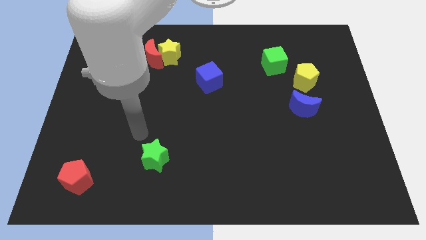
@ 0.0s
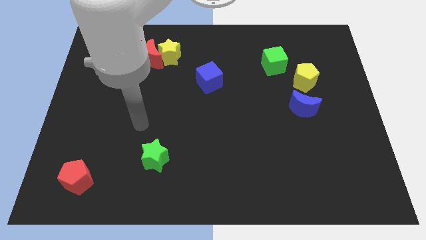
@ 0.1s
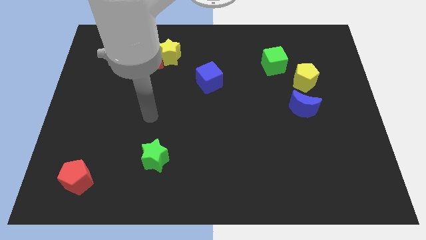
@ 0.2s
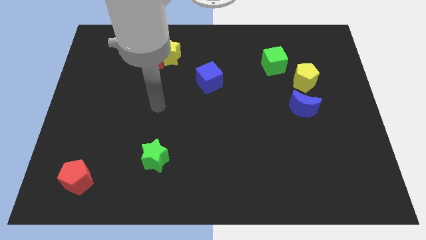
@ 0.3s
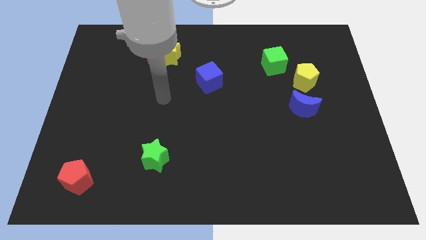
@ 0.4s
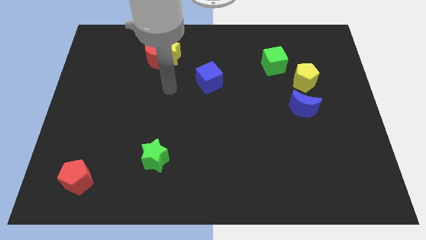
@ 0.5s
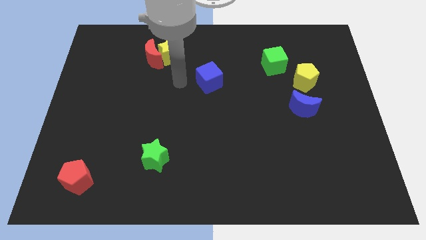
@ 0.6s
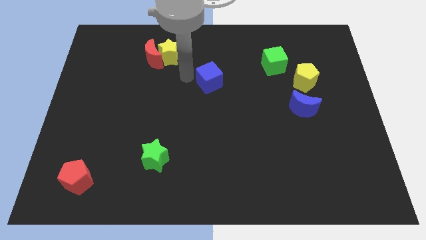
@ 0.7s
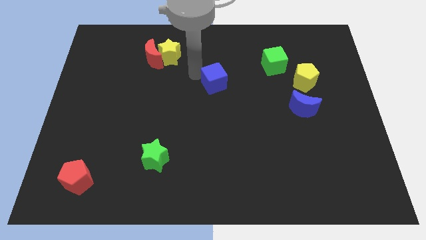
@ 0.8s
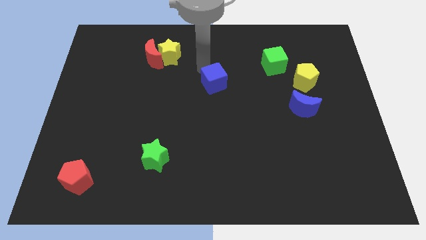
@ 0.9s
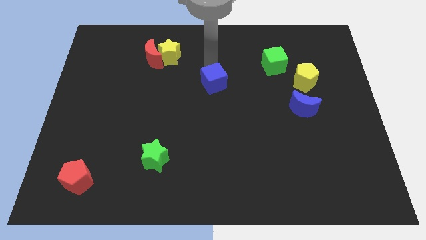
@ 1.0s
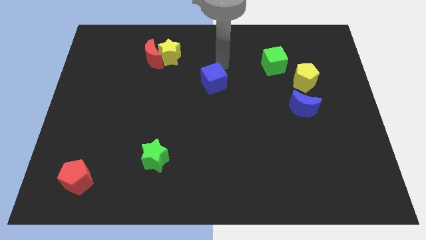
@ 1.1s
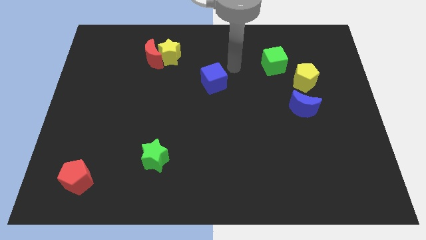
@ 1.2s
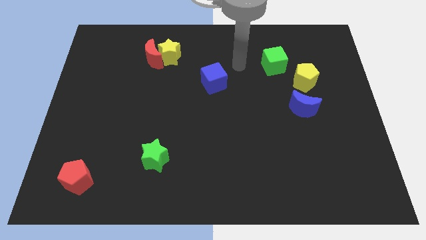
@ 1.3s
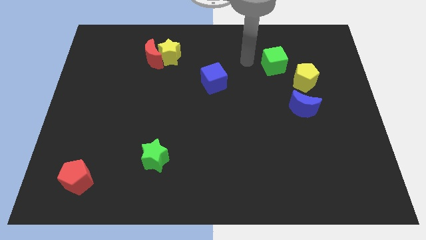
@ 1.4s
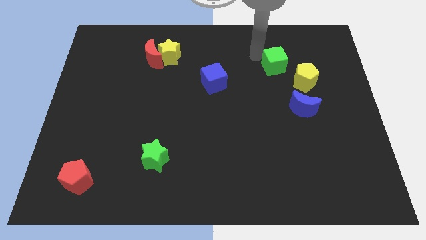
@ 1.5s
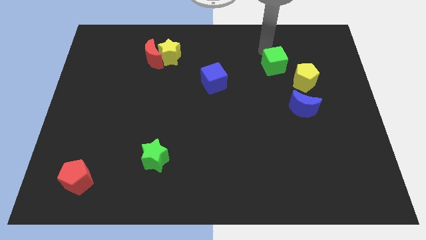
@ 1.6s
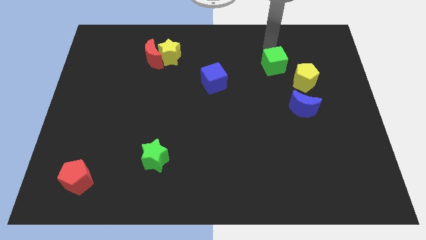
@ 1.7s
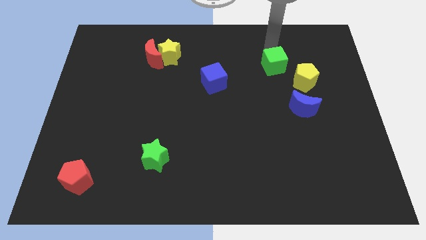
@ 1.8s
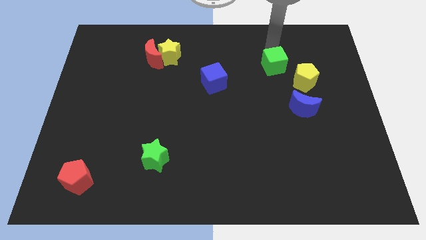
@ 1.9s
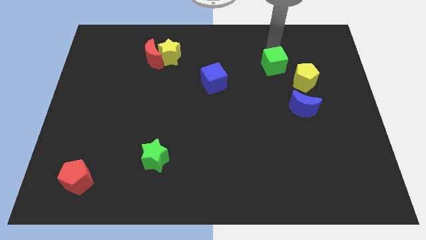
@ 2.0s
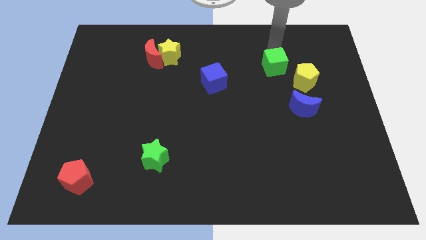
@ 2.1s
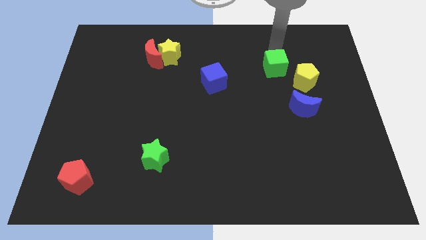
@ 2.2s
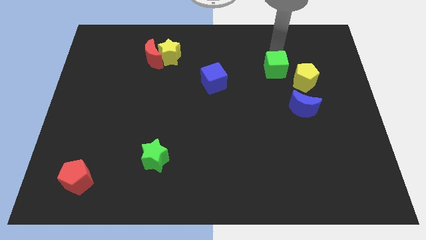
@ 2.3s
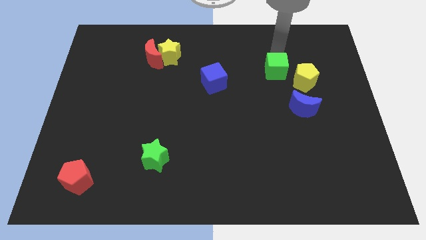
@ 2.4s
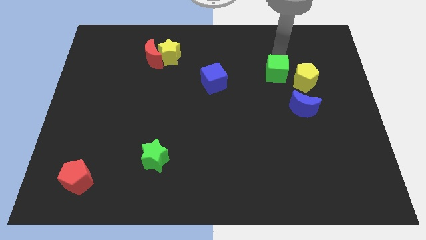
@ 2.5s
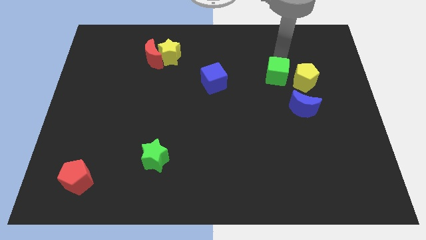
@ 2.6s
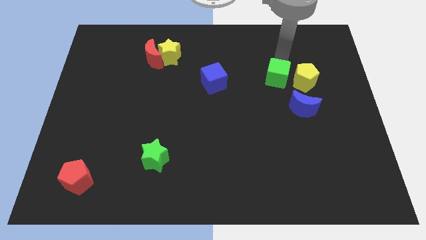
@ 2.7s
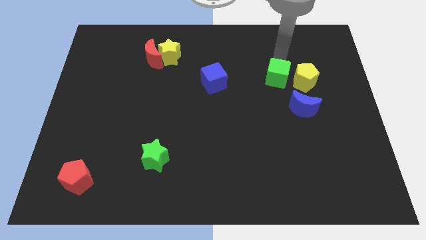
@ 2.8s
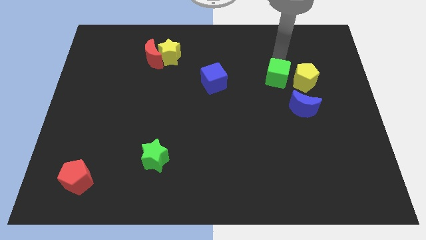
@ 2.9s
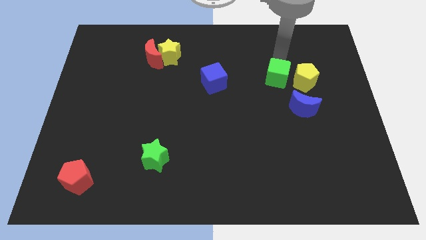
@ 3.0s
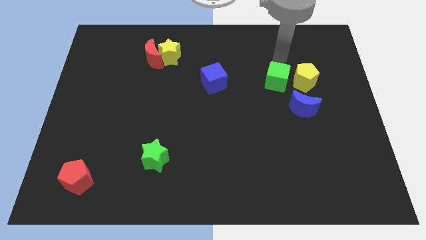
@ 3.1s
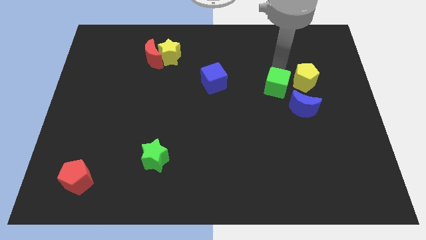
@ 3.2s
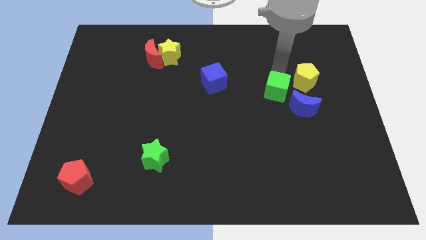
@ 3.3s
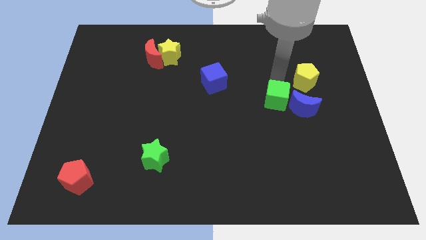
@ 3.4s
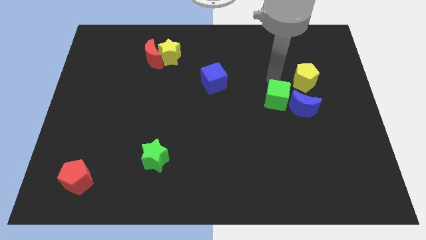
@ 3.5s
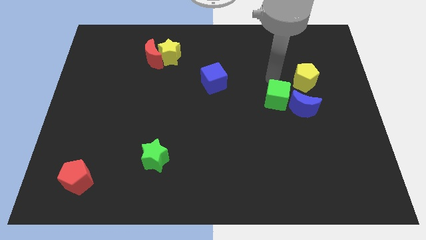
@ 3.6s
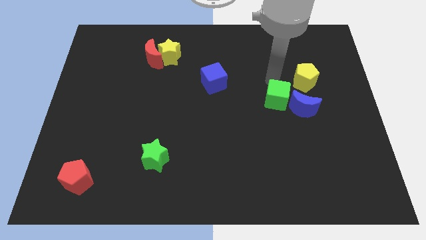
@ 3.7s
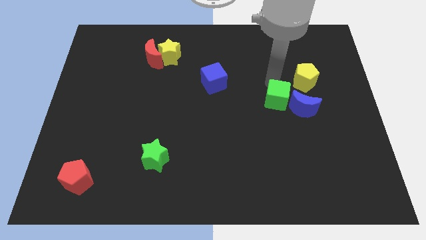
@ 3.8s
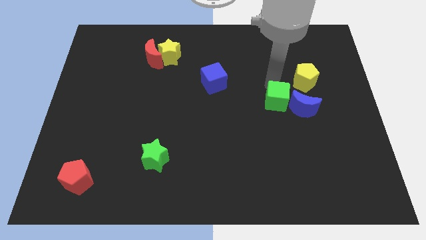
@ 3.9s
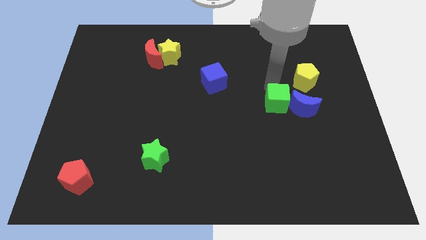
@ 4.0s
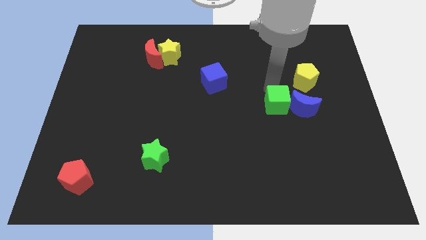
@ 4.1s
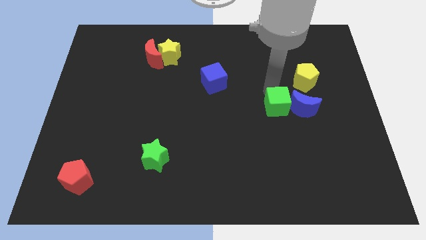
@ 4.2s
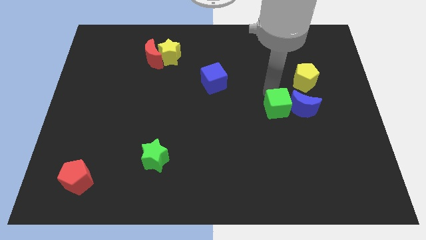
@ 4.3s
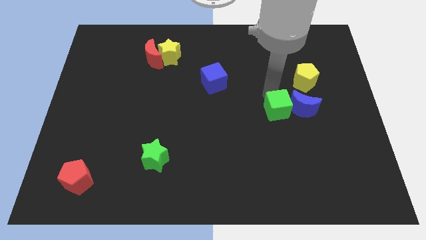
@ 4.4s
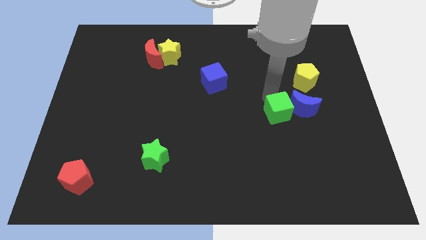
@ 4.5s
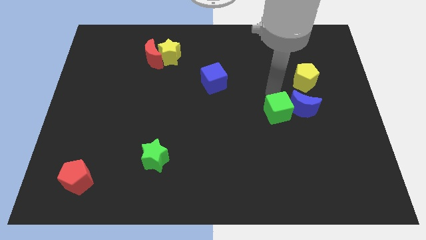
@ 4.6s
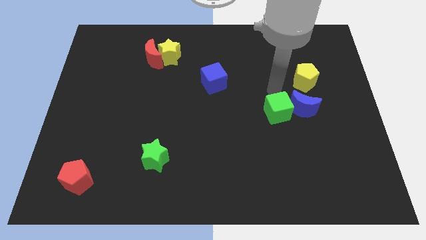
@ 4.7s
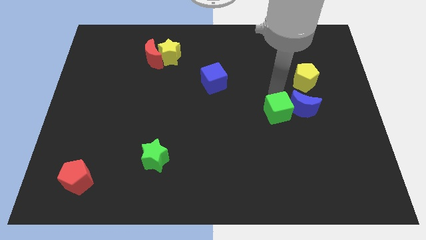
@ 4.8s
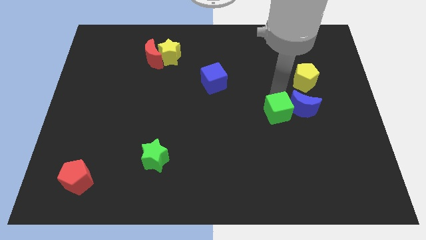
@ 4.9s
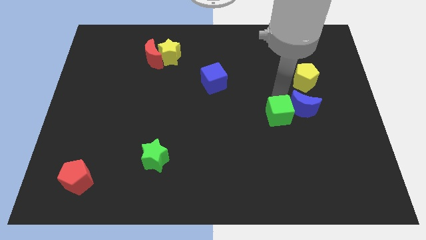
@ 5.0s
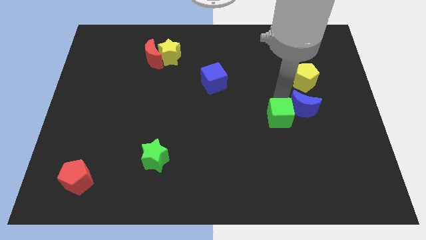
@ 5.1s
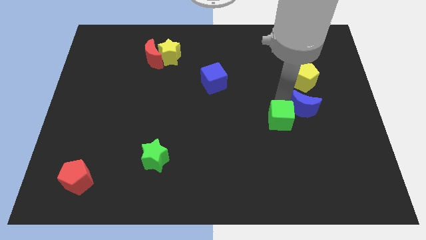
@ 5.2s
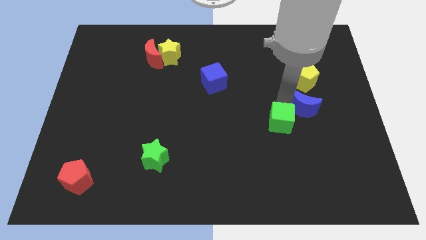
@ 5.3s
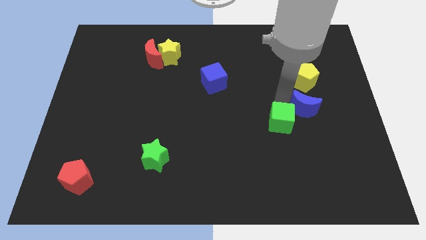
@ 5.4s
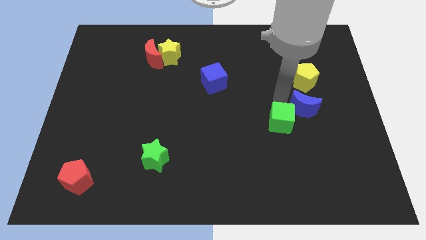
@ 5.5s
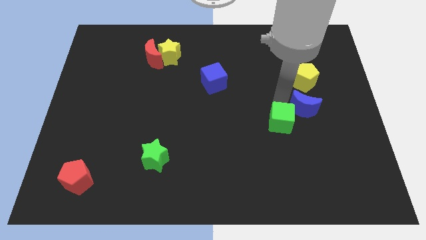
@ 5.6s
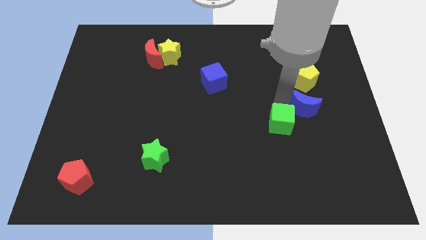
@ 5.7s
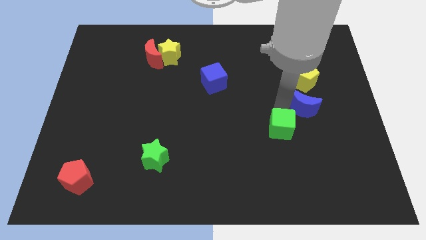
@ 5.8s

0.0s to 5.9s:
move the green cube downwards

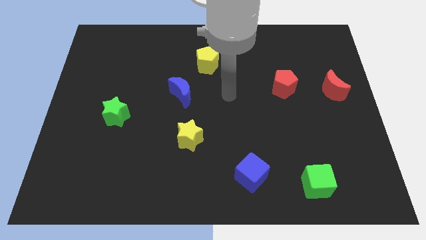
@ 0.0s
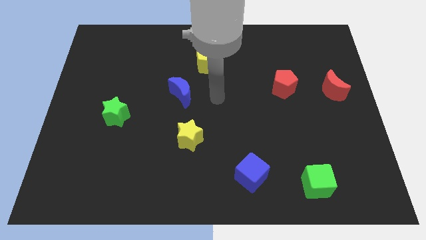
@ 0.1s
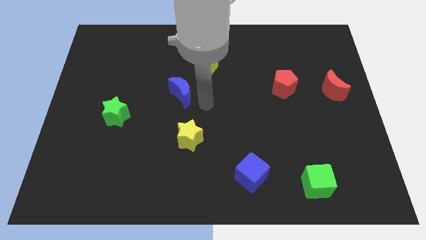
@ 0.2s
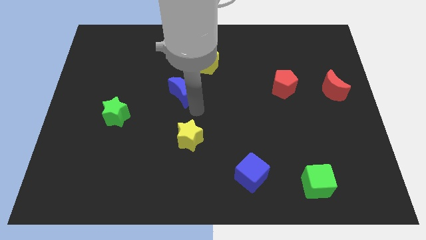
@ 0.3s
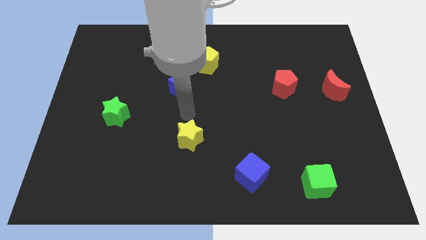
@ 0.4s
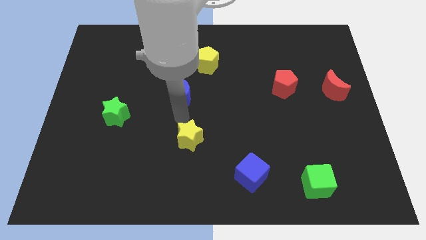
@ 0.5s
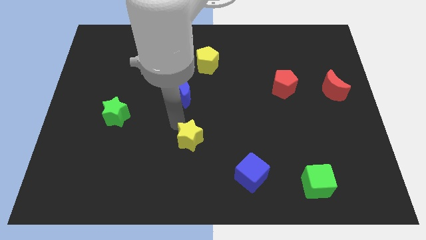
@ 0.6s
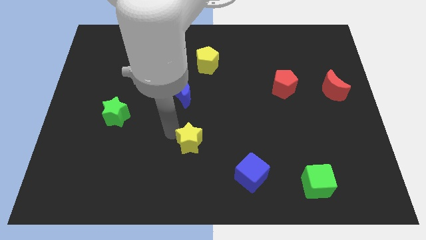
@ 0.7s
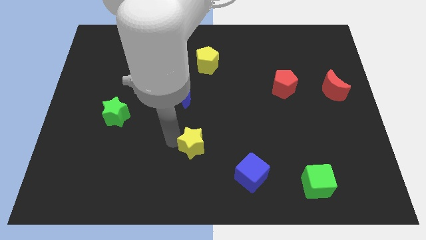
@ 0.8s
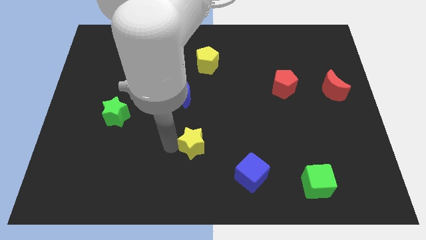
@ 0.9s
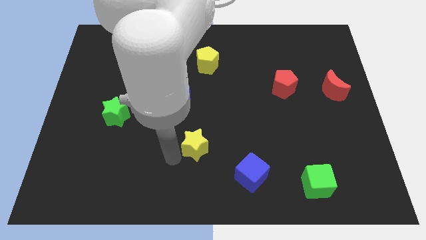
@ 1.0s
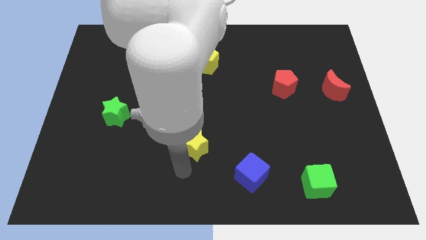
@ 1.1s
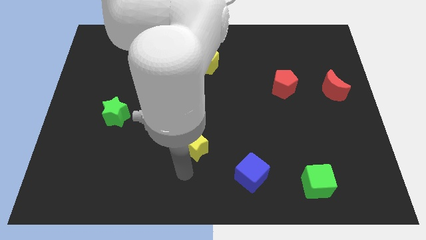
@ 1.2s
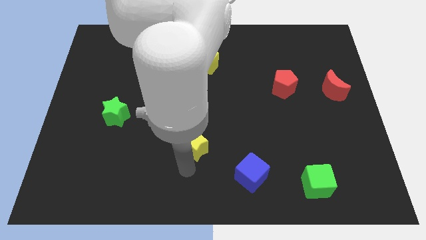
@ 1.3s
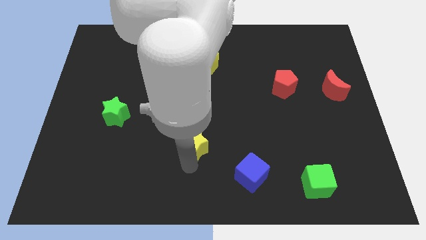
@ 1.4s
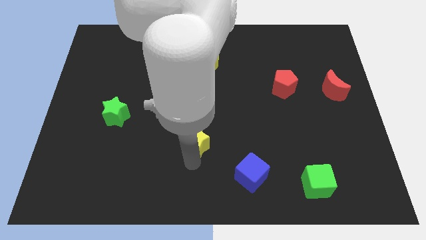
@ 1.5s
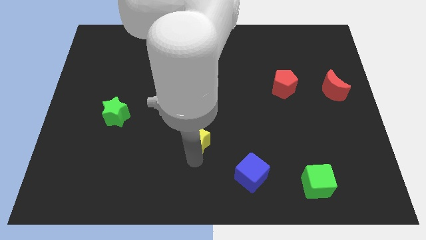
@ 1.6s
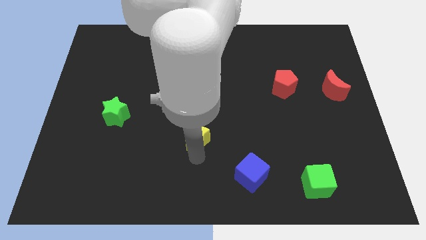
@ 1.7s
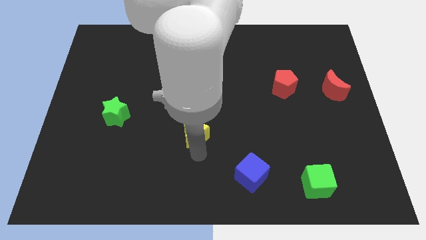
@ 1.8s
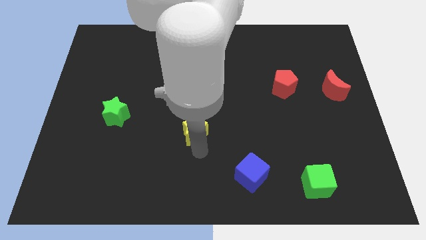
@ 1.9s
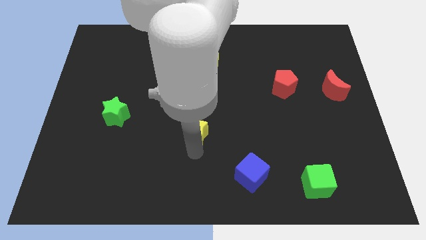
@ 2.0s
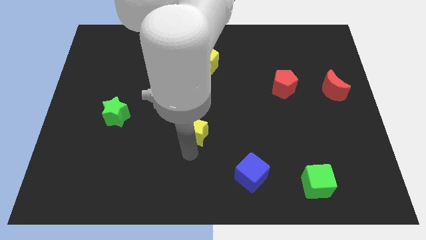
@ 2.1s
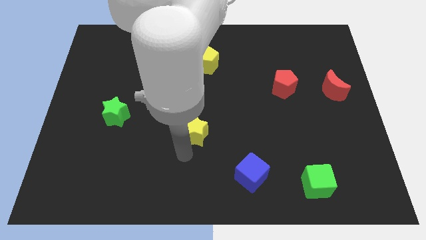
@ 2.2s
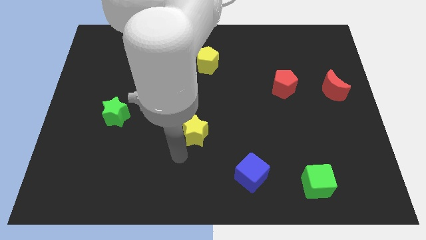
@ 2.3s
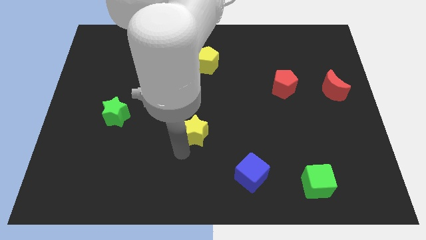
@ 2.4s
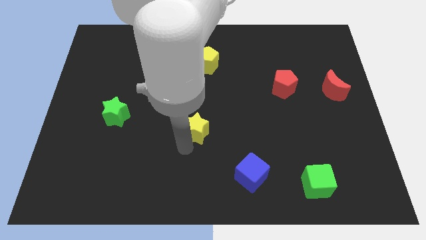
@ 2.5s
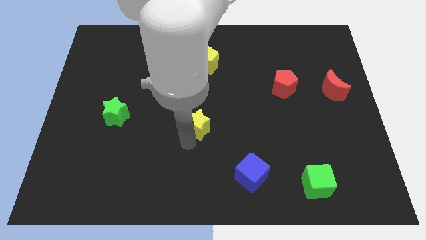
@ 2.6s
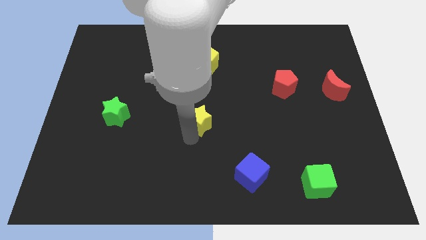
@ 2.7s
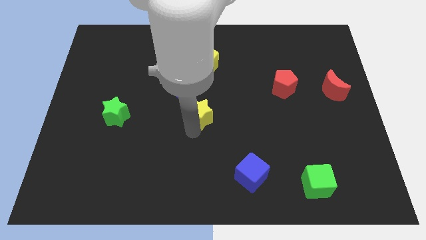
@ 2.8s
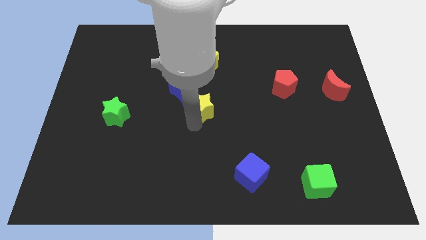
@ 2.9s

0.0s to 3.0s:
slide the yellow star upwards and to the right somewhat
